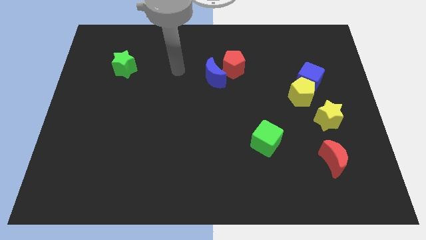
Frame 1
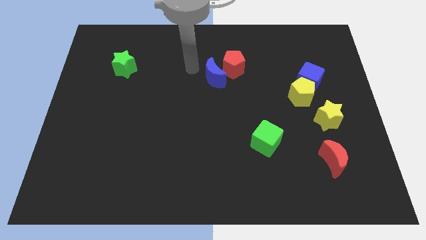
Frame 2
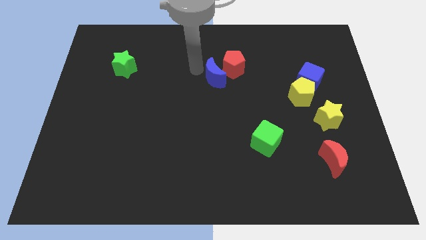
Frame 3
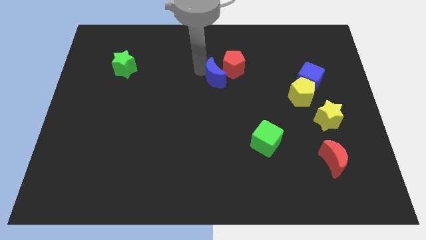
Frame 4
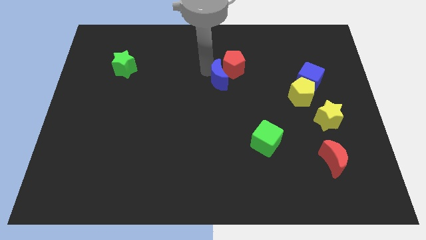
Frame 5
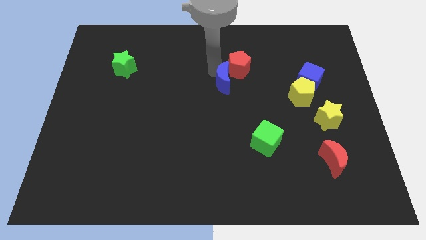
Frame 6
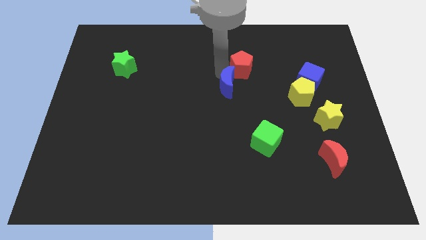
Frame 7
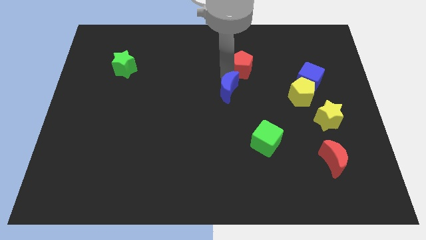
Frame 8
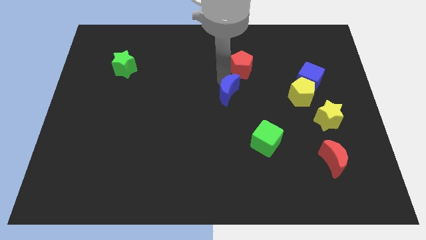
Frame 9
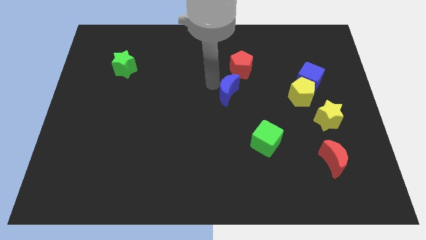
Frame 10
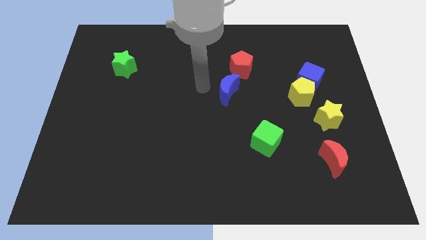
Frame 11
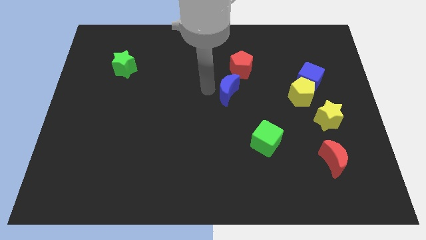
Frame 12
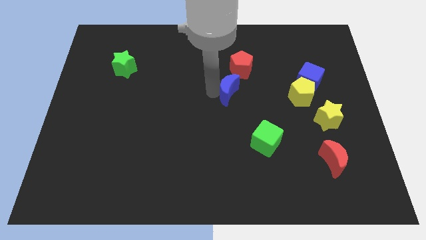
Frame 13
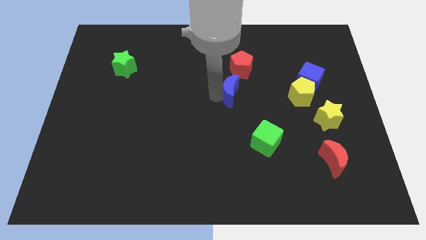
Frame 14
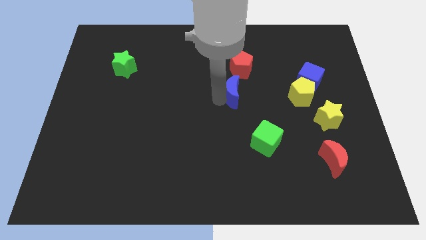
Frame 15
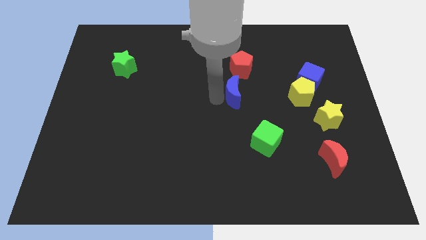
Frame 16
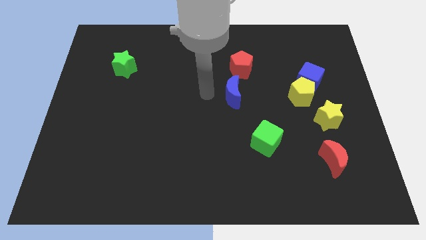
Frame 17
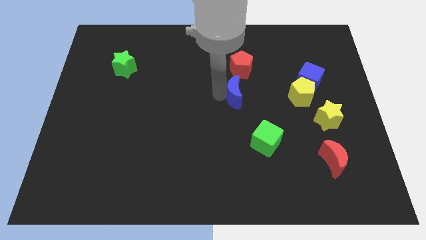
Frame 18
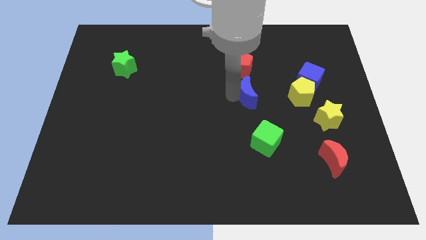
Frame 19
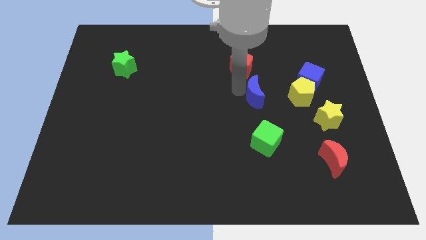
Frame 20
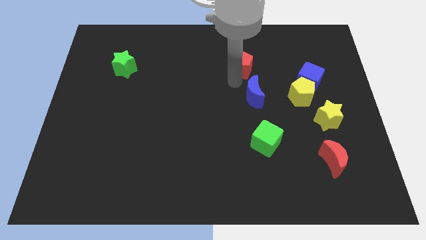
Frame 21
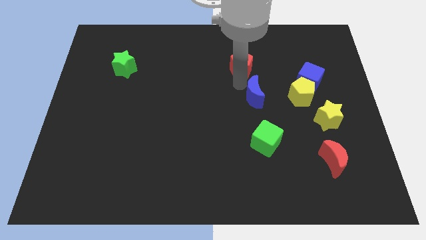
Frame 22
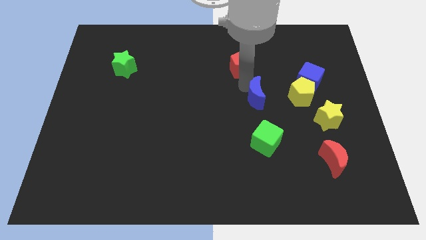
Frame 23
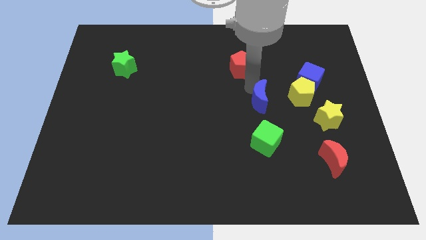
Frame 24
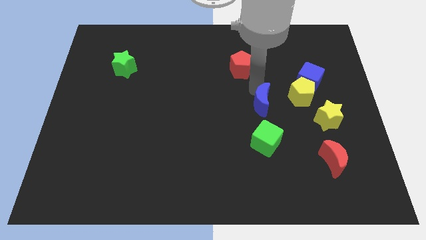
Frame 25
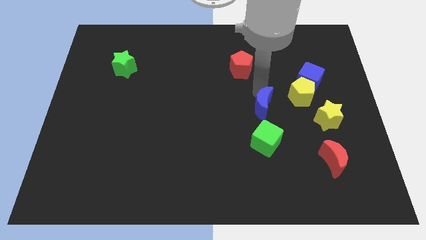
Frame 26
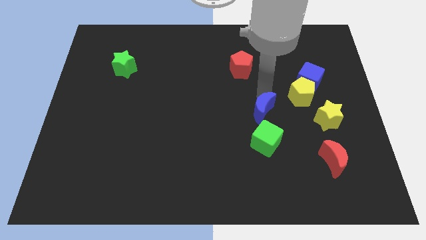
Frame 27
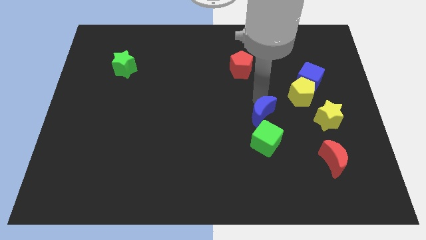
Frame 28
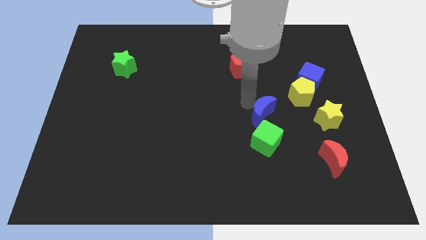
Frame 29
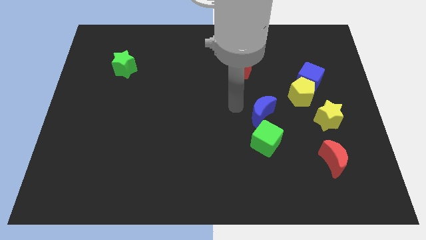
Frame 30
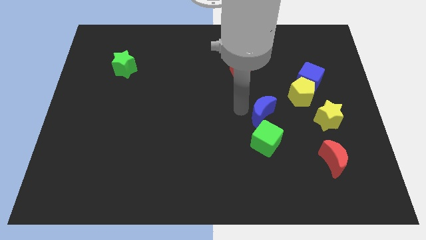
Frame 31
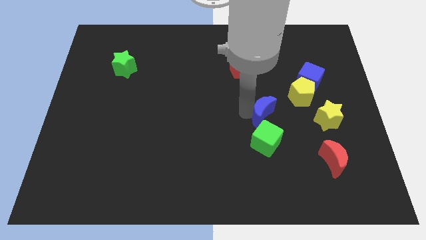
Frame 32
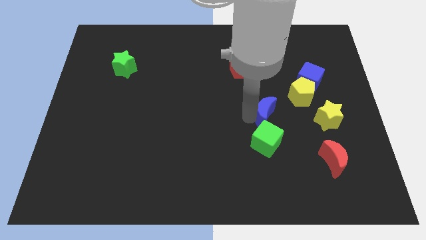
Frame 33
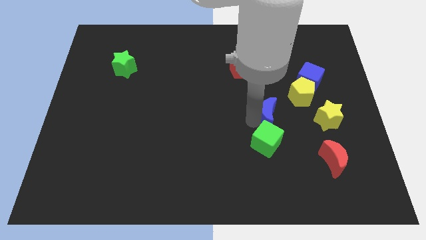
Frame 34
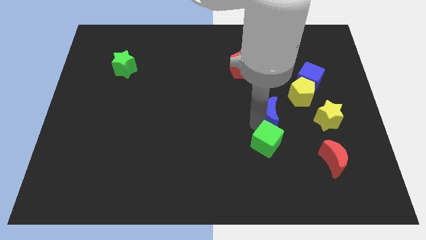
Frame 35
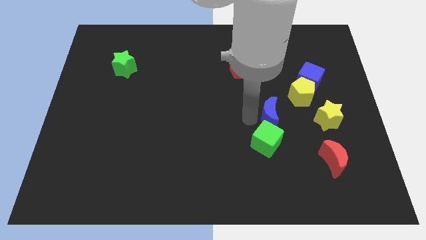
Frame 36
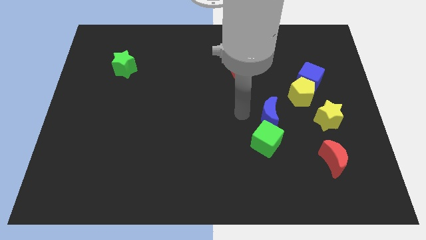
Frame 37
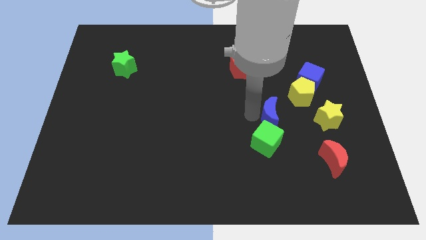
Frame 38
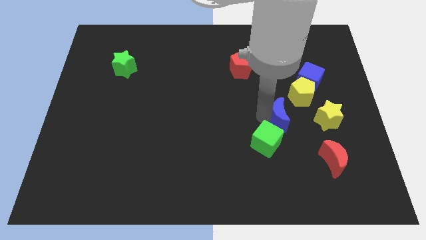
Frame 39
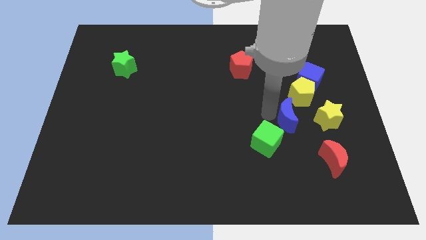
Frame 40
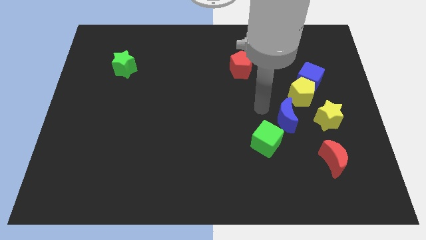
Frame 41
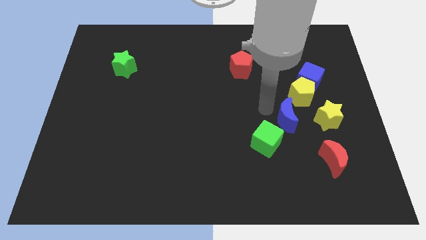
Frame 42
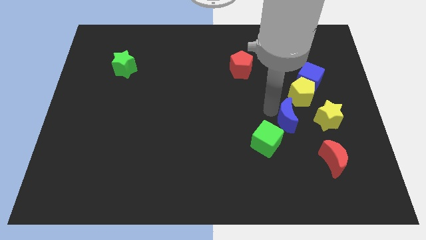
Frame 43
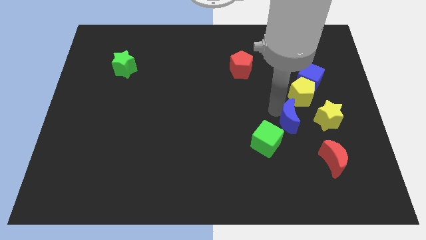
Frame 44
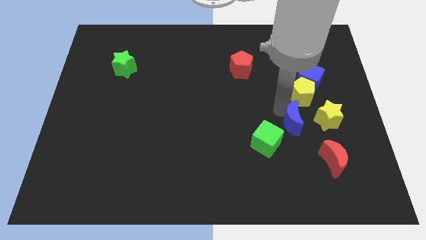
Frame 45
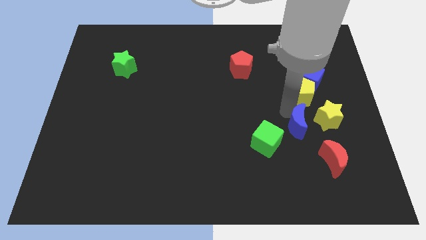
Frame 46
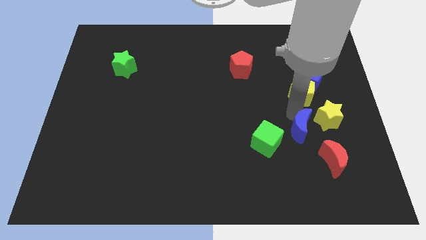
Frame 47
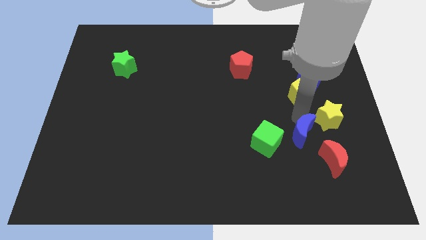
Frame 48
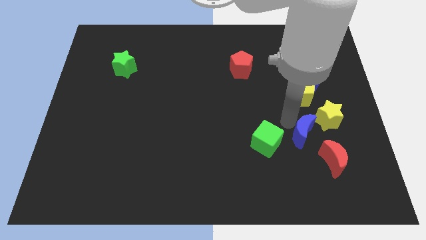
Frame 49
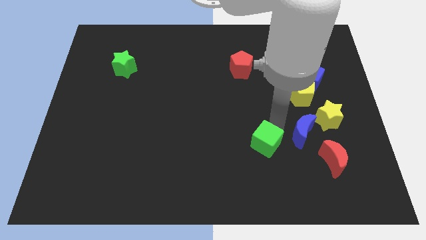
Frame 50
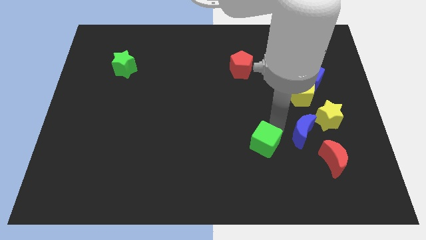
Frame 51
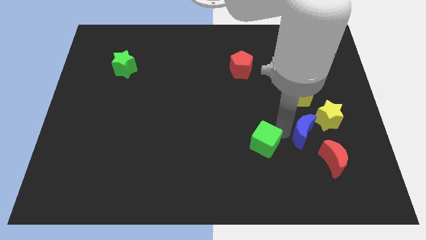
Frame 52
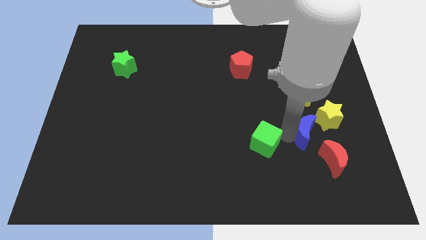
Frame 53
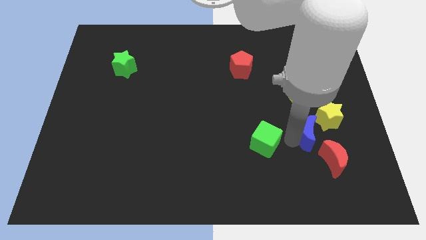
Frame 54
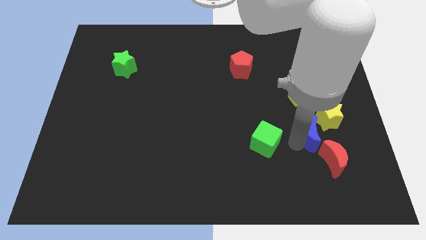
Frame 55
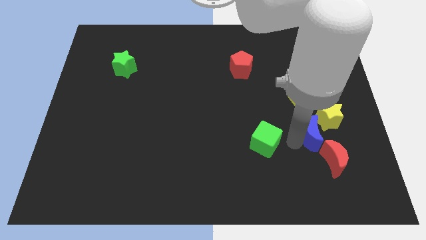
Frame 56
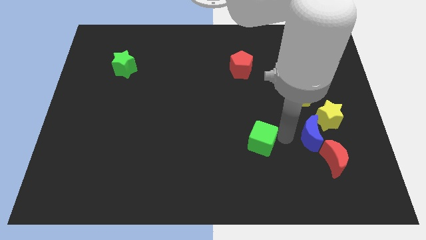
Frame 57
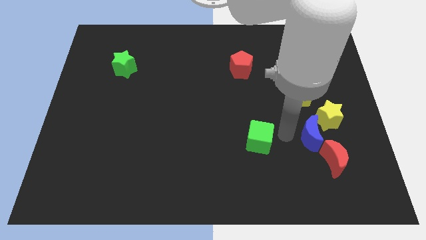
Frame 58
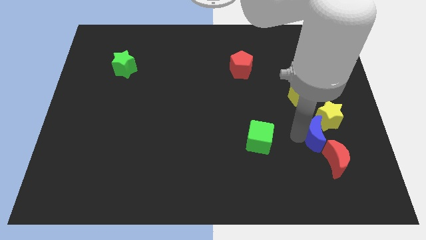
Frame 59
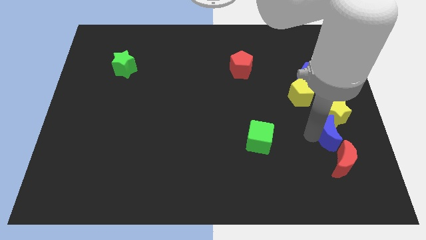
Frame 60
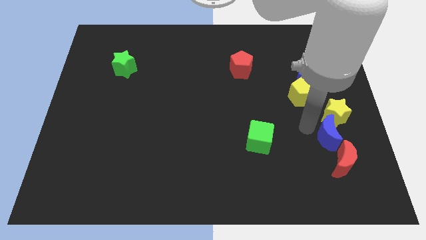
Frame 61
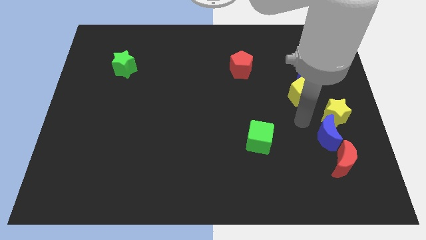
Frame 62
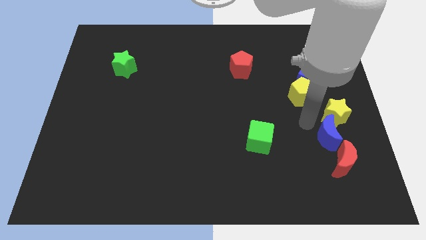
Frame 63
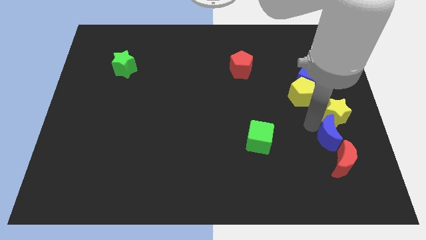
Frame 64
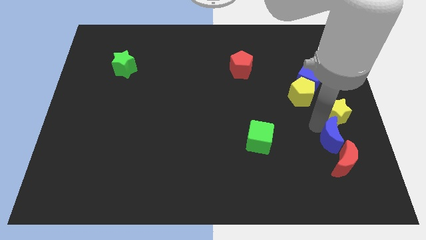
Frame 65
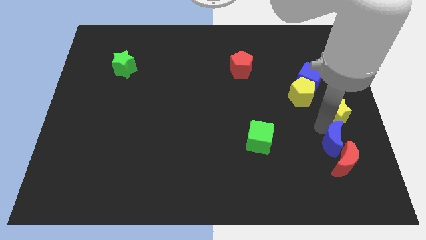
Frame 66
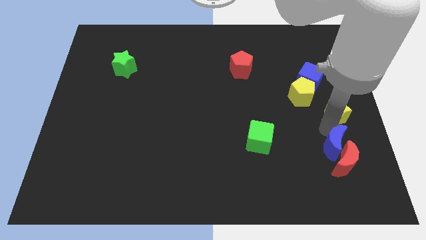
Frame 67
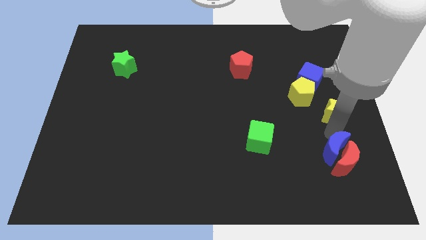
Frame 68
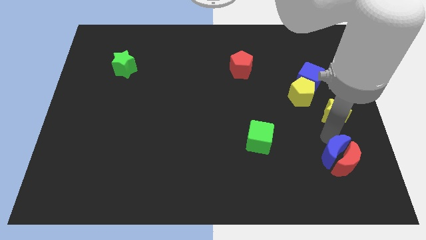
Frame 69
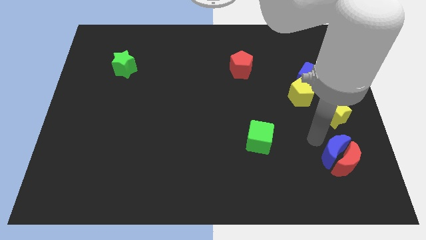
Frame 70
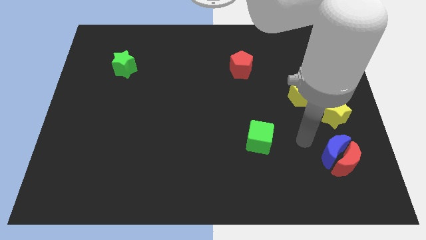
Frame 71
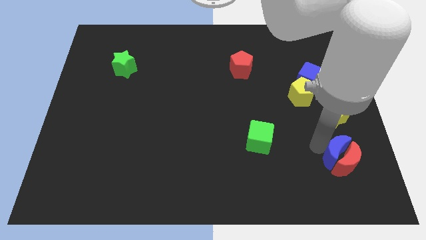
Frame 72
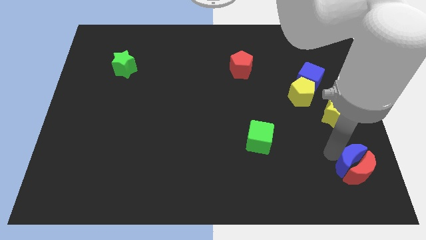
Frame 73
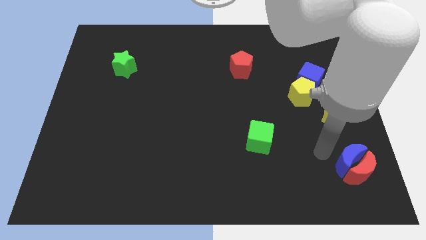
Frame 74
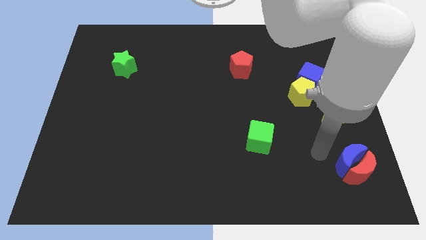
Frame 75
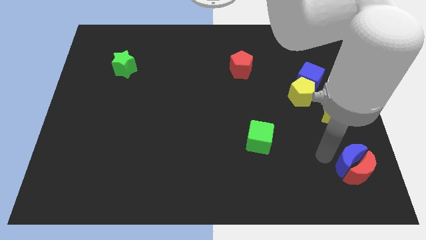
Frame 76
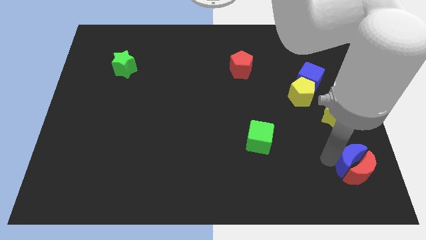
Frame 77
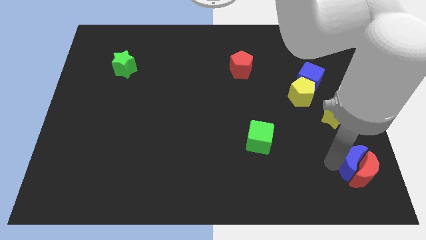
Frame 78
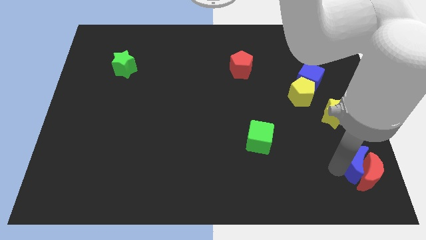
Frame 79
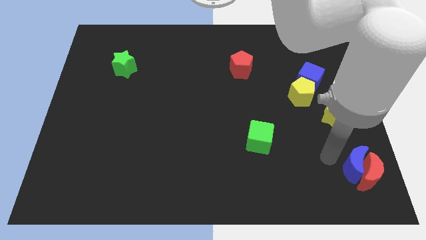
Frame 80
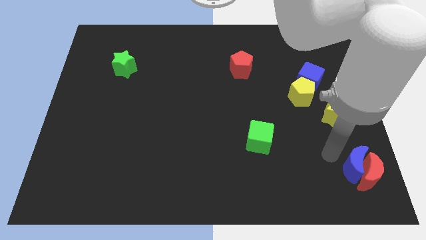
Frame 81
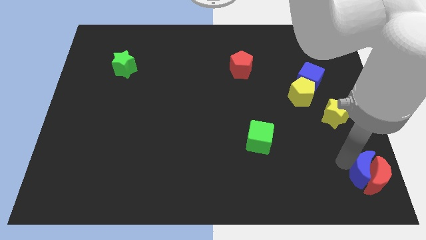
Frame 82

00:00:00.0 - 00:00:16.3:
move the blue moon to the lower right corner
